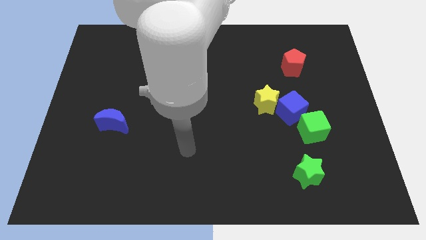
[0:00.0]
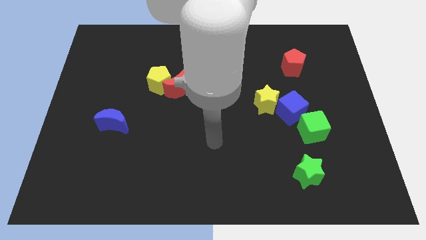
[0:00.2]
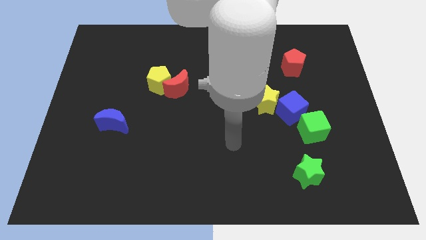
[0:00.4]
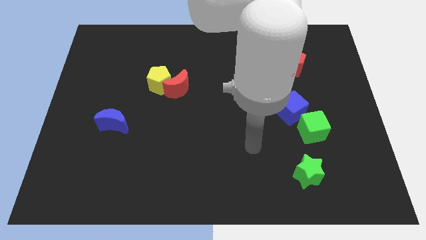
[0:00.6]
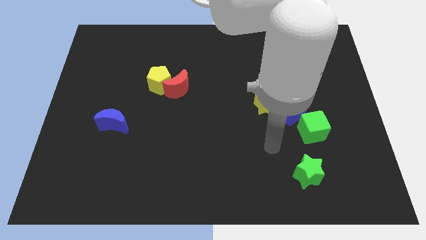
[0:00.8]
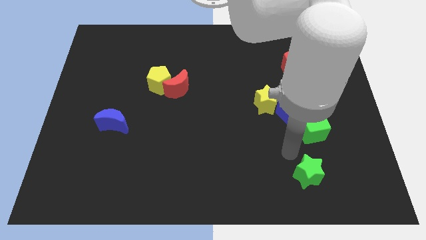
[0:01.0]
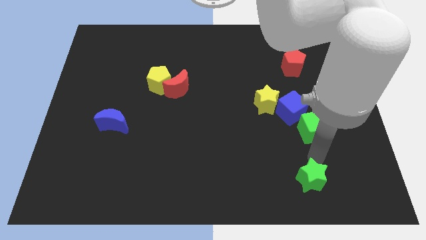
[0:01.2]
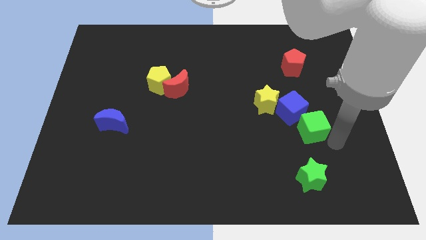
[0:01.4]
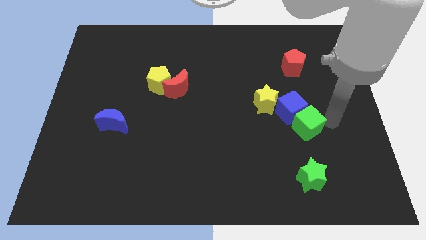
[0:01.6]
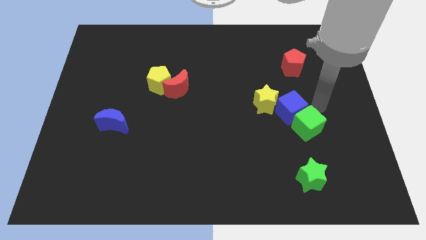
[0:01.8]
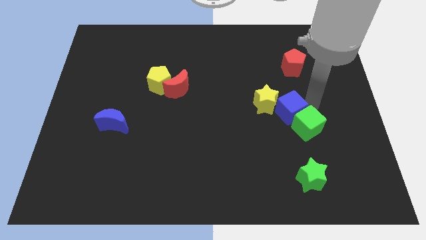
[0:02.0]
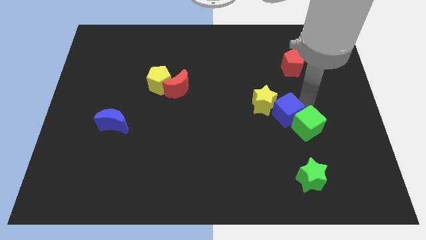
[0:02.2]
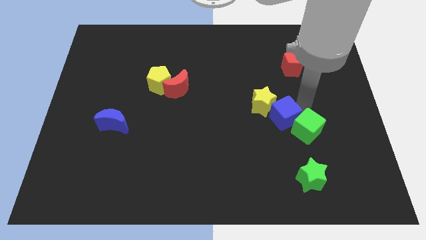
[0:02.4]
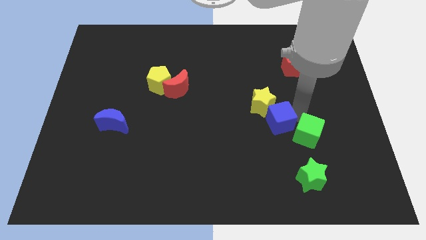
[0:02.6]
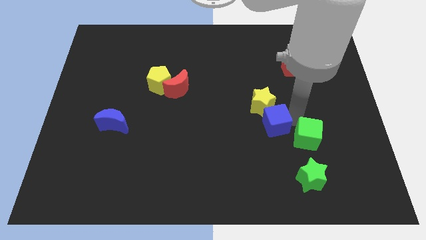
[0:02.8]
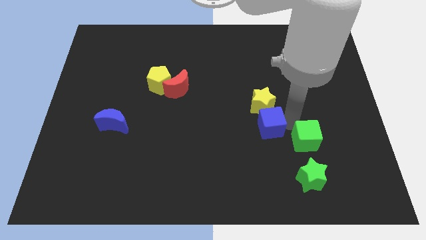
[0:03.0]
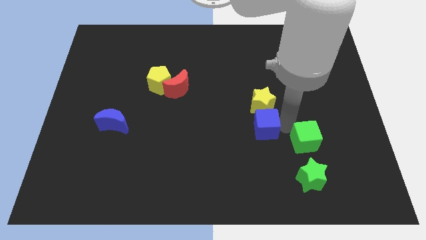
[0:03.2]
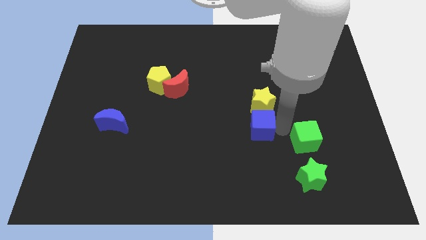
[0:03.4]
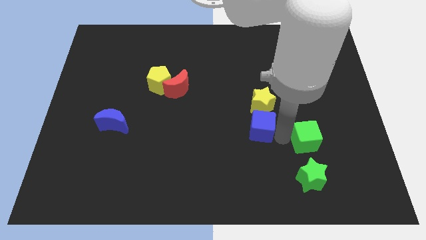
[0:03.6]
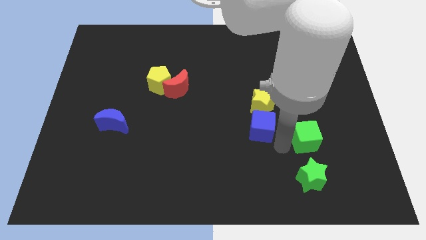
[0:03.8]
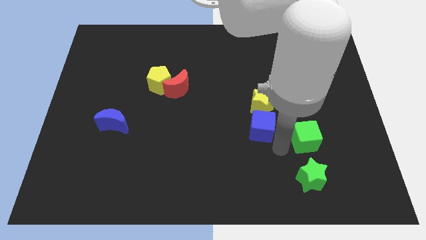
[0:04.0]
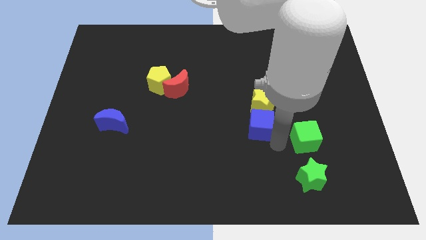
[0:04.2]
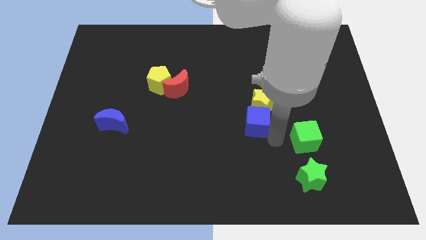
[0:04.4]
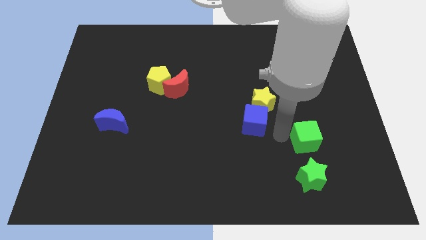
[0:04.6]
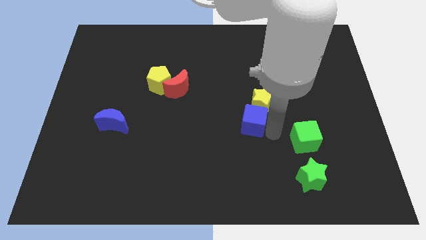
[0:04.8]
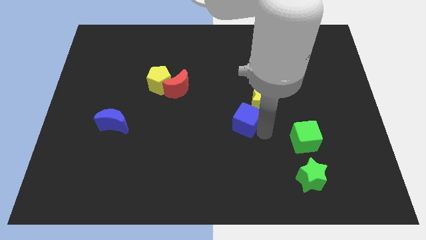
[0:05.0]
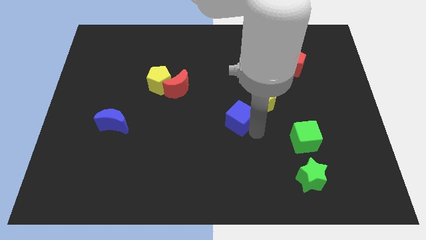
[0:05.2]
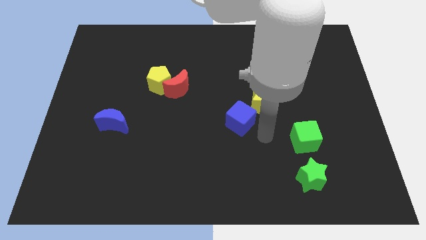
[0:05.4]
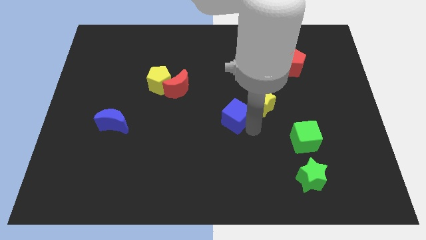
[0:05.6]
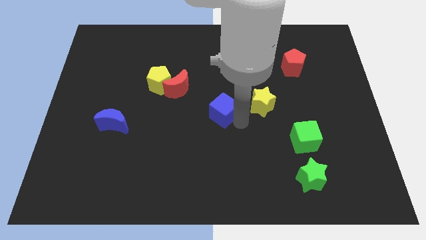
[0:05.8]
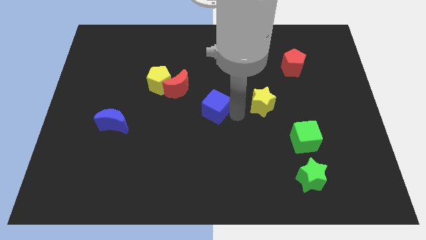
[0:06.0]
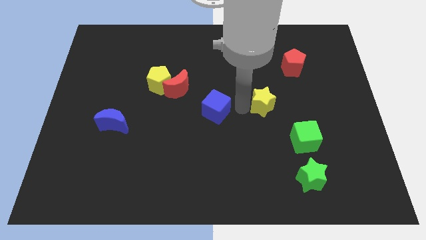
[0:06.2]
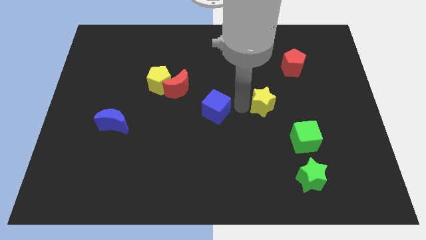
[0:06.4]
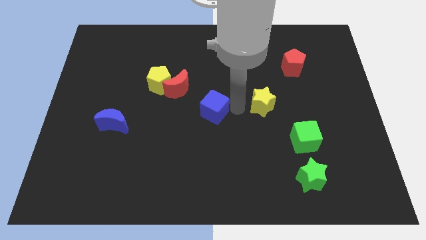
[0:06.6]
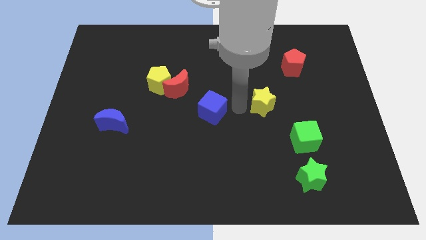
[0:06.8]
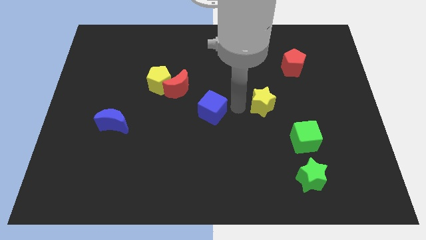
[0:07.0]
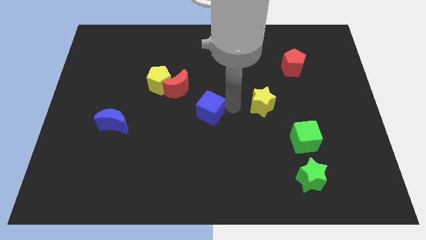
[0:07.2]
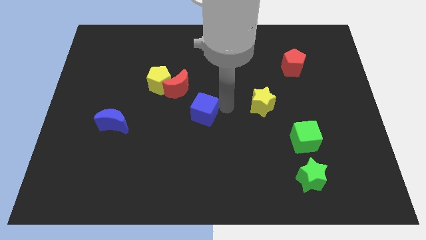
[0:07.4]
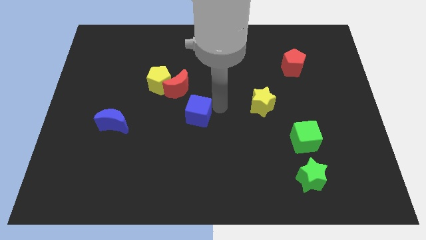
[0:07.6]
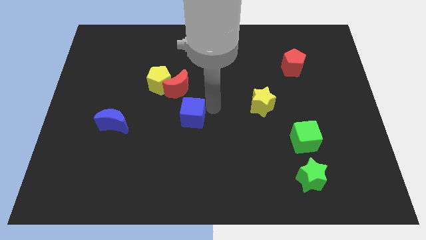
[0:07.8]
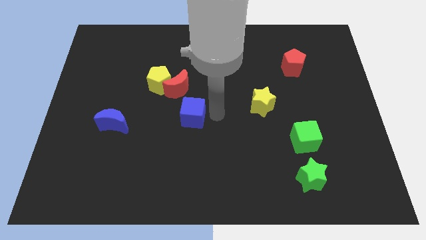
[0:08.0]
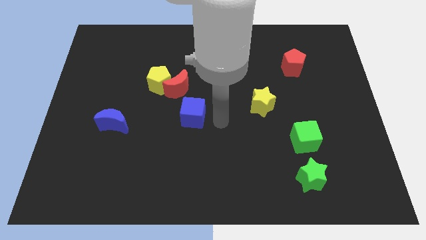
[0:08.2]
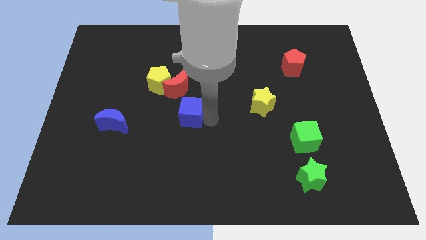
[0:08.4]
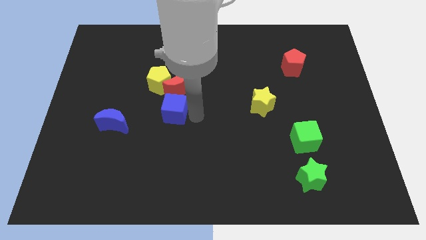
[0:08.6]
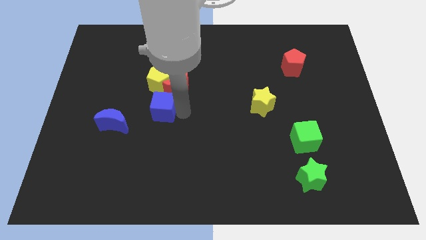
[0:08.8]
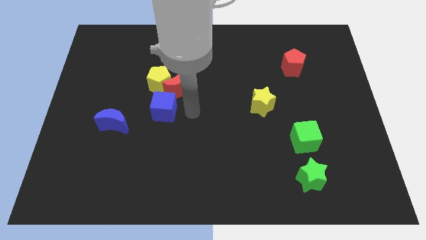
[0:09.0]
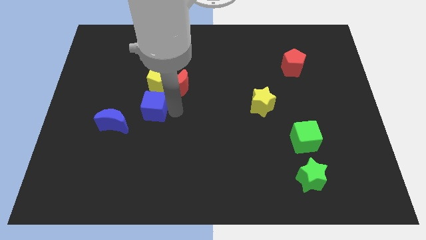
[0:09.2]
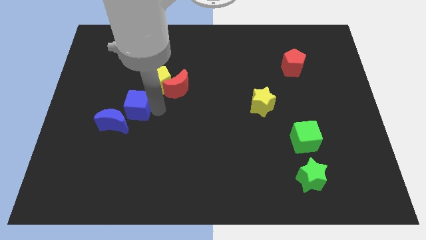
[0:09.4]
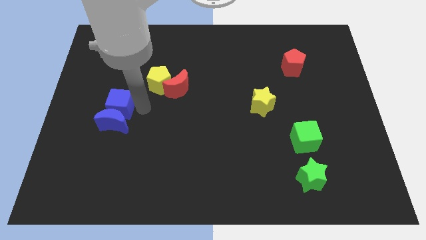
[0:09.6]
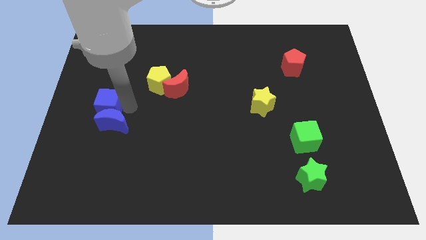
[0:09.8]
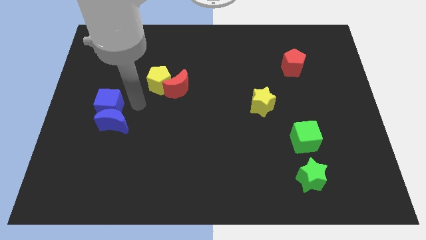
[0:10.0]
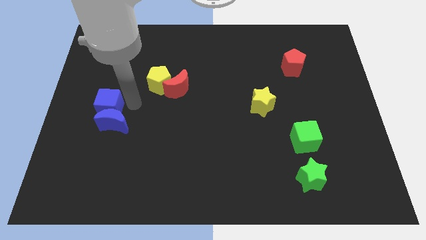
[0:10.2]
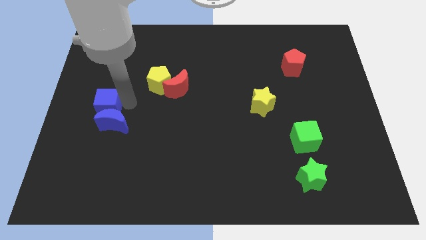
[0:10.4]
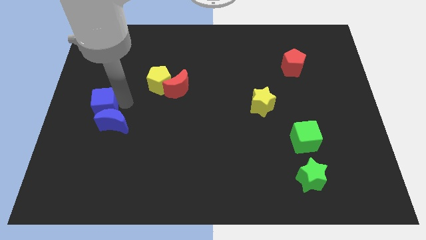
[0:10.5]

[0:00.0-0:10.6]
move the blue cube to the center left
